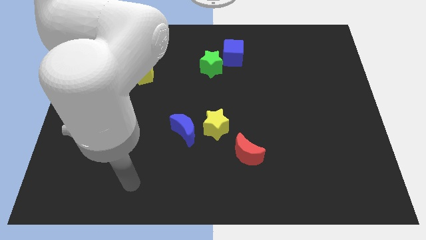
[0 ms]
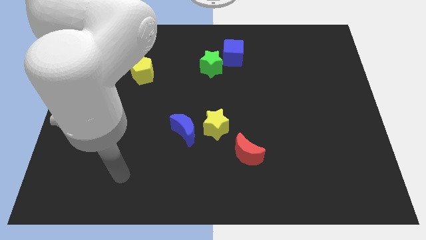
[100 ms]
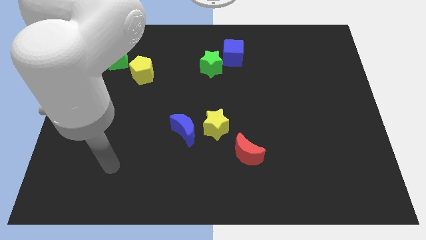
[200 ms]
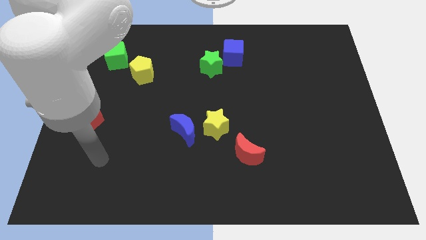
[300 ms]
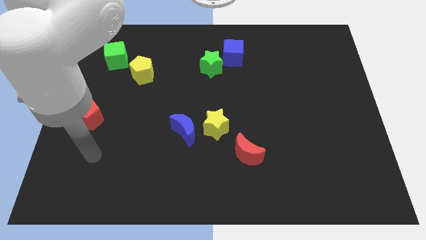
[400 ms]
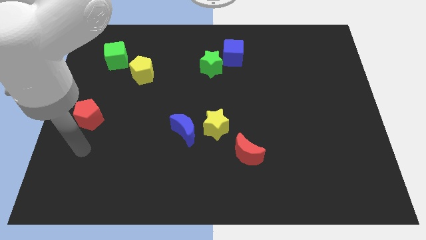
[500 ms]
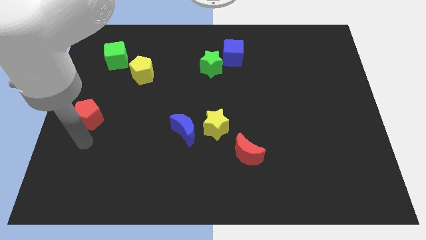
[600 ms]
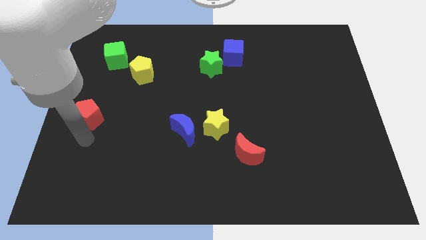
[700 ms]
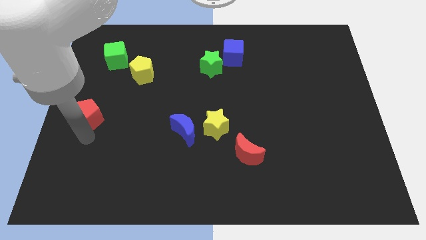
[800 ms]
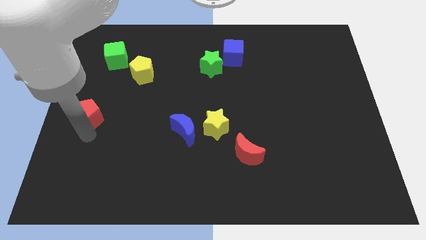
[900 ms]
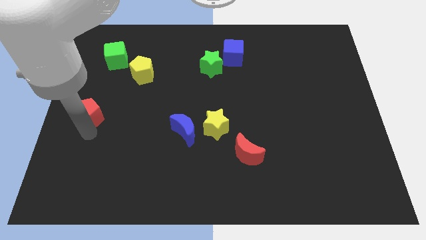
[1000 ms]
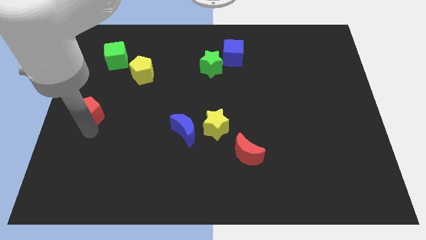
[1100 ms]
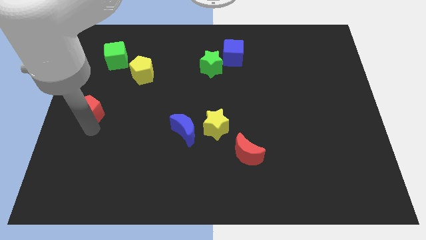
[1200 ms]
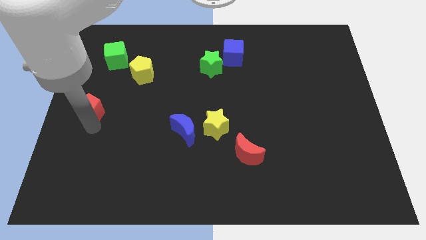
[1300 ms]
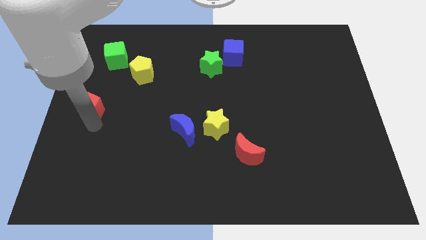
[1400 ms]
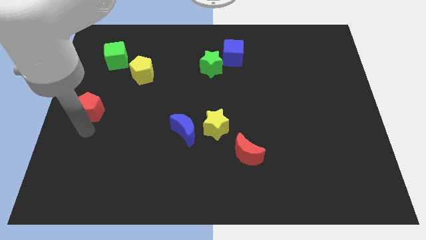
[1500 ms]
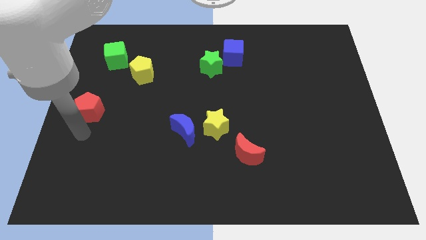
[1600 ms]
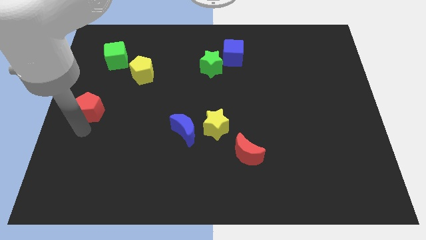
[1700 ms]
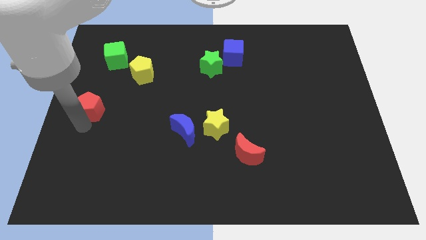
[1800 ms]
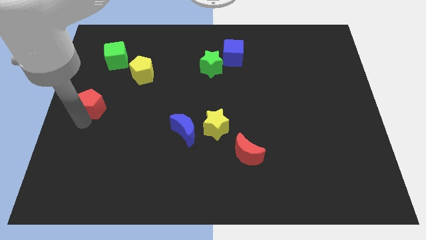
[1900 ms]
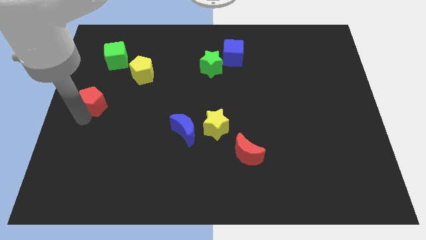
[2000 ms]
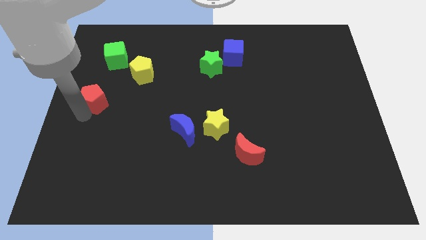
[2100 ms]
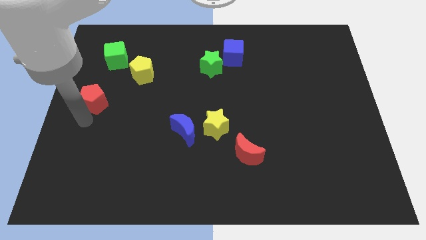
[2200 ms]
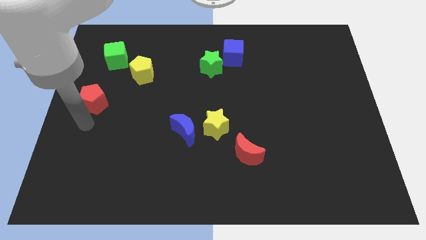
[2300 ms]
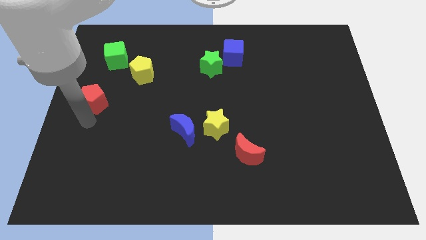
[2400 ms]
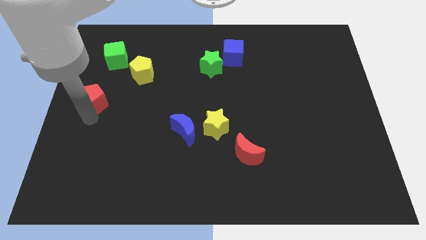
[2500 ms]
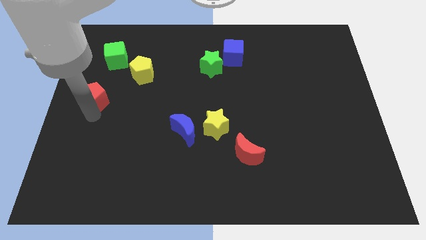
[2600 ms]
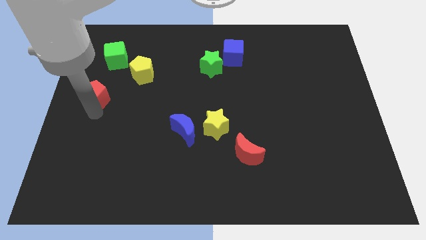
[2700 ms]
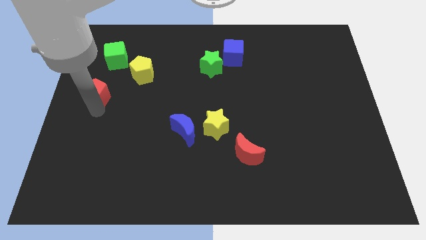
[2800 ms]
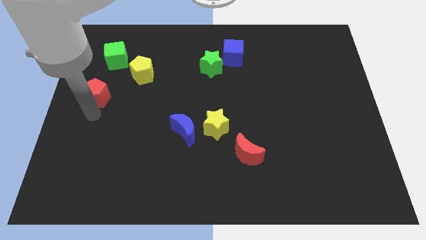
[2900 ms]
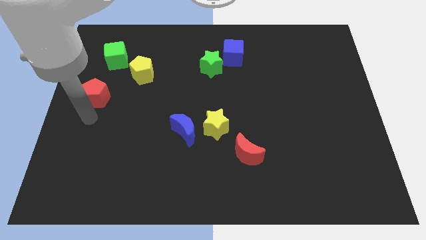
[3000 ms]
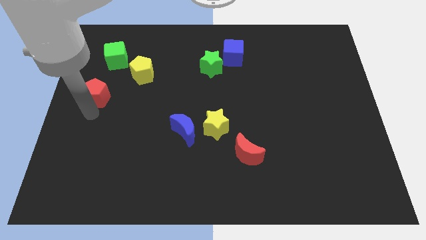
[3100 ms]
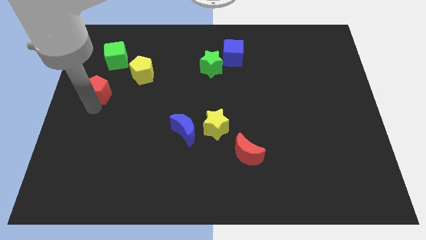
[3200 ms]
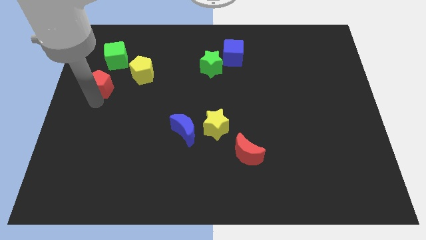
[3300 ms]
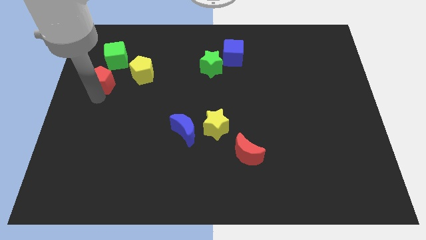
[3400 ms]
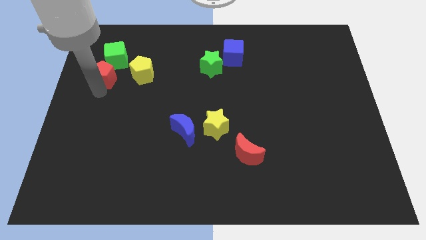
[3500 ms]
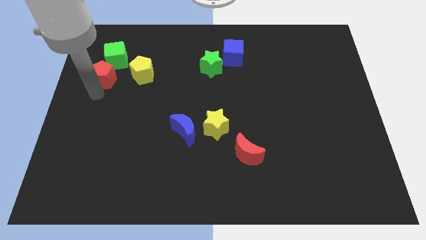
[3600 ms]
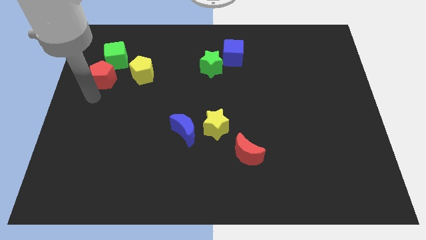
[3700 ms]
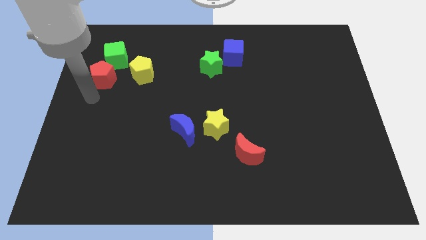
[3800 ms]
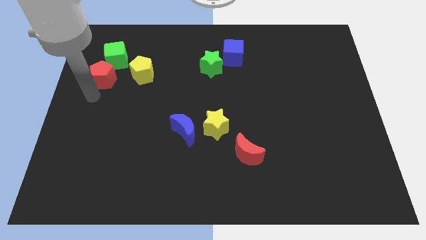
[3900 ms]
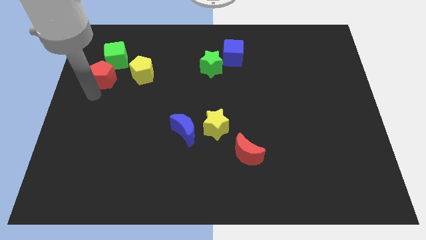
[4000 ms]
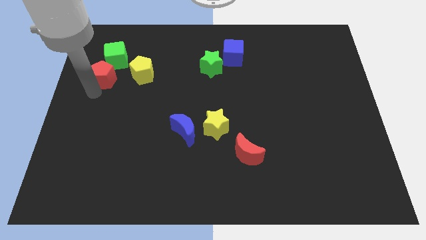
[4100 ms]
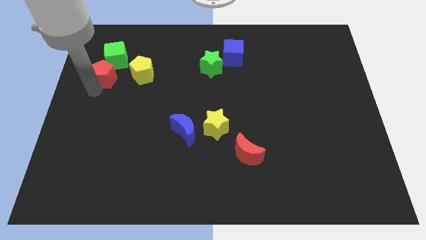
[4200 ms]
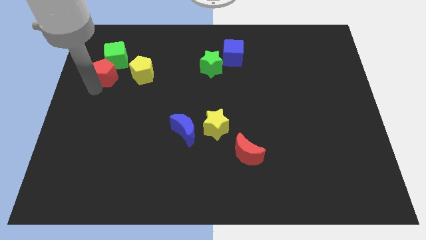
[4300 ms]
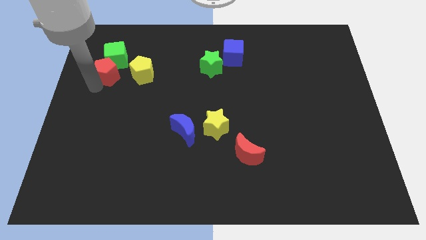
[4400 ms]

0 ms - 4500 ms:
put the red pentagon towards the green cube

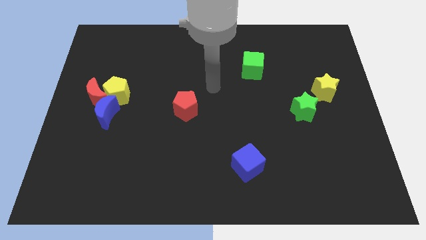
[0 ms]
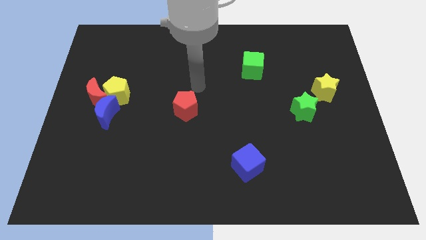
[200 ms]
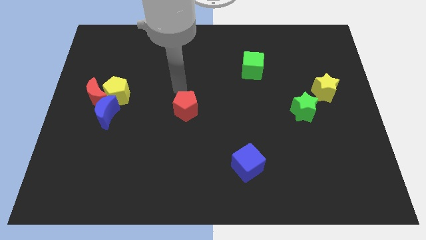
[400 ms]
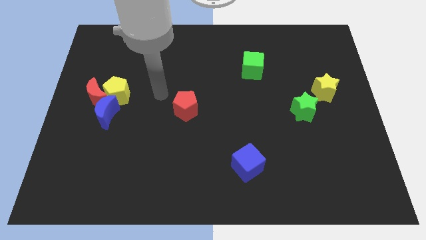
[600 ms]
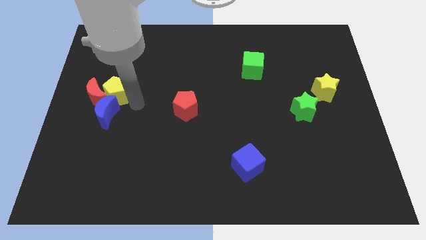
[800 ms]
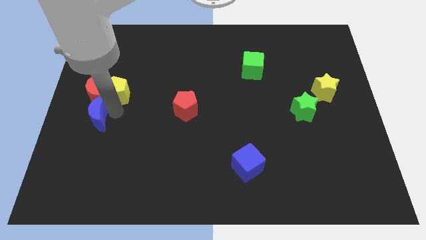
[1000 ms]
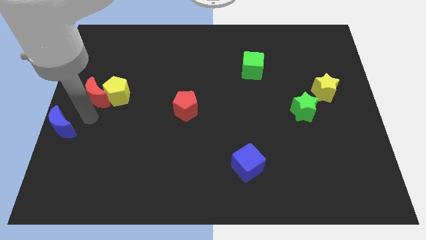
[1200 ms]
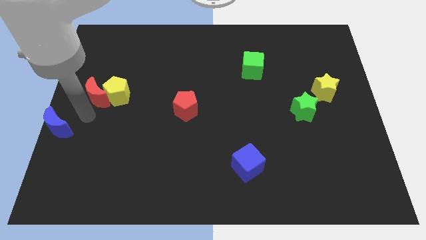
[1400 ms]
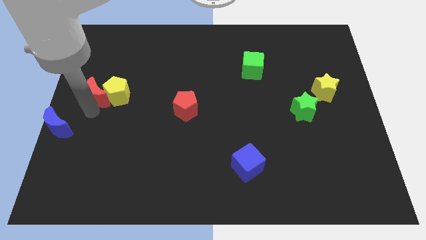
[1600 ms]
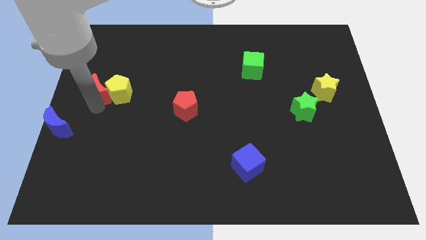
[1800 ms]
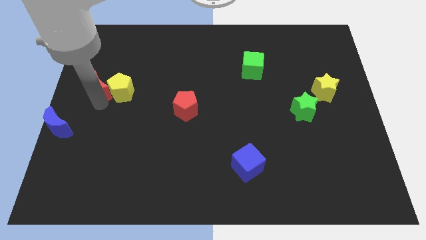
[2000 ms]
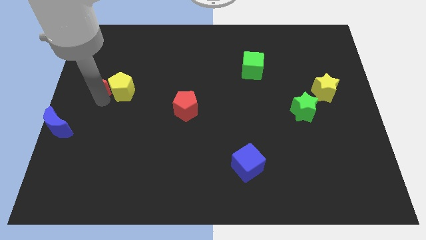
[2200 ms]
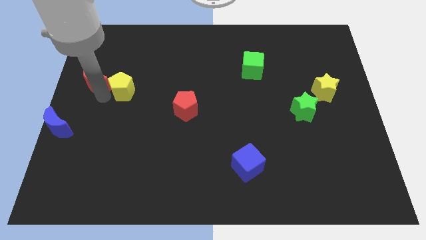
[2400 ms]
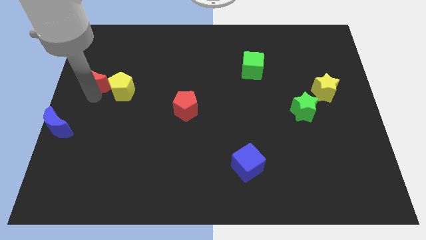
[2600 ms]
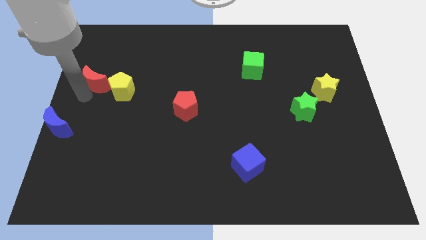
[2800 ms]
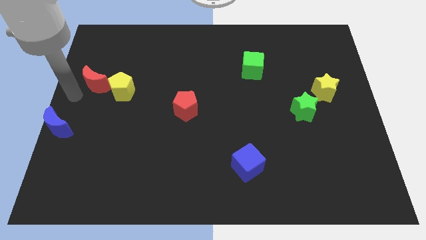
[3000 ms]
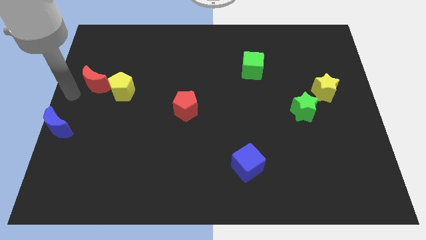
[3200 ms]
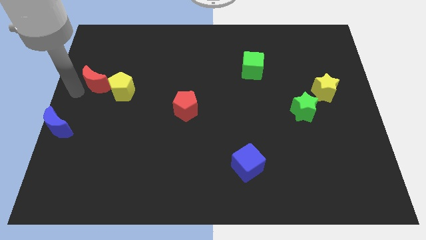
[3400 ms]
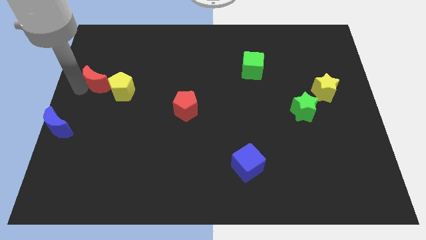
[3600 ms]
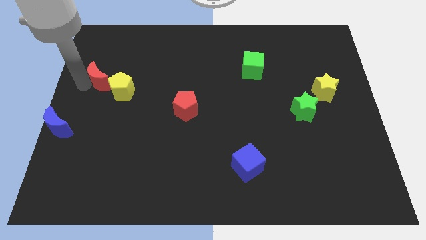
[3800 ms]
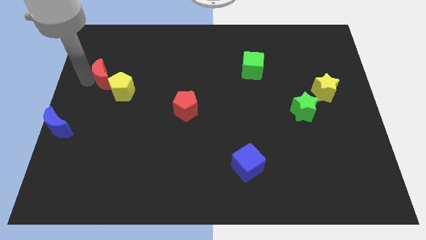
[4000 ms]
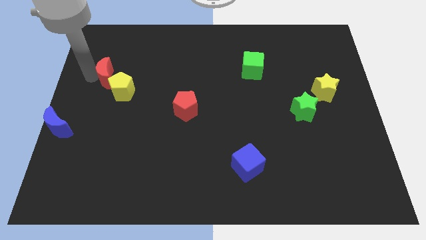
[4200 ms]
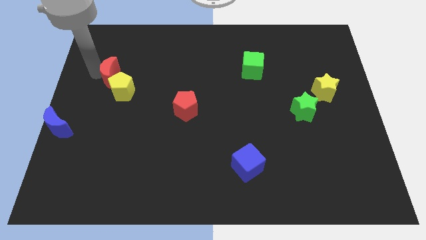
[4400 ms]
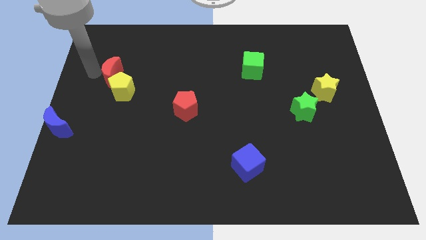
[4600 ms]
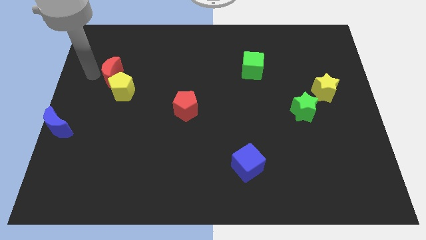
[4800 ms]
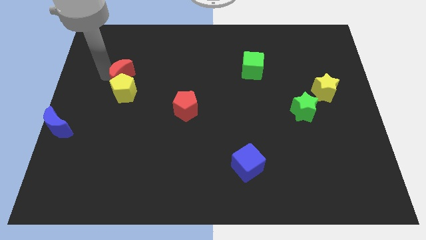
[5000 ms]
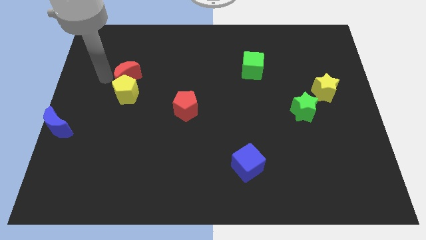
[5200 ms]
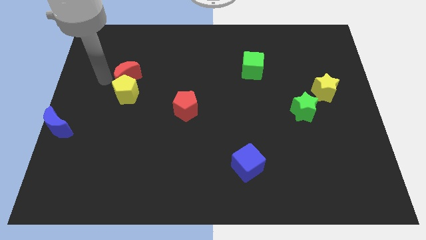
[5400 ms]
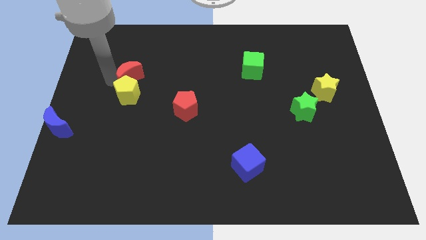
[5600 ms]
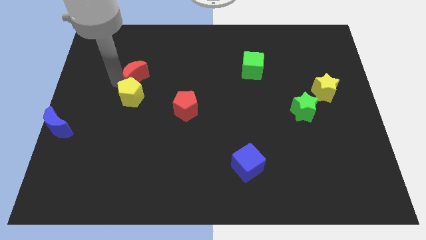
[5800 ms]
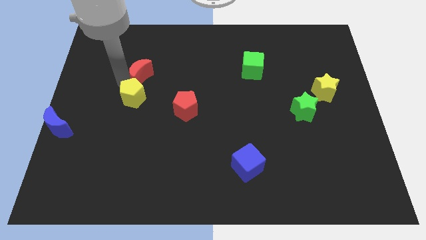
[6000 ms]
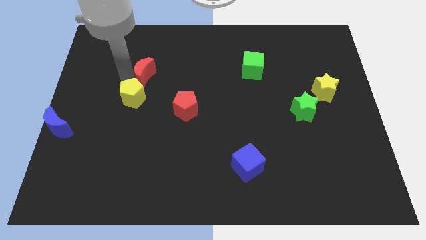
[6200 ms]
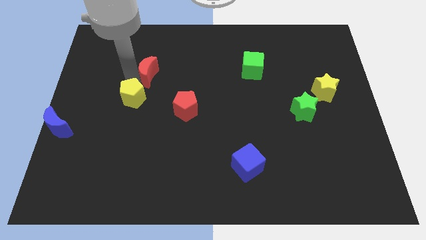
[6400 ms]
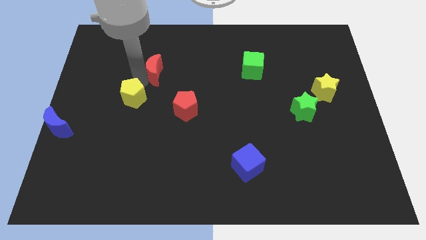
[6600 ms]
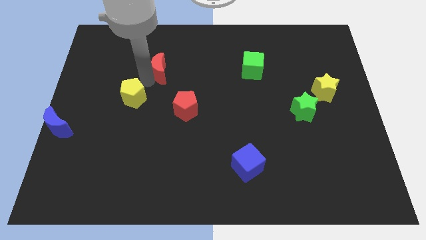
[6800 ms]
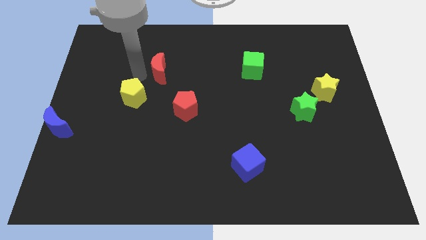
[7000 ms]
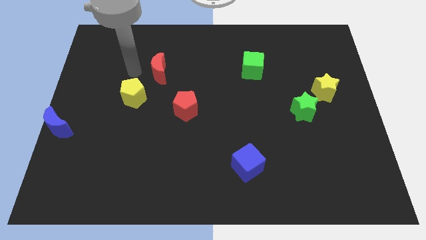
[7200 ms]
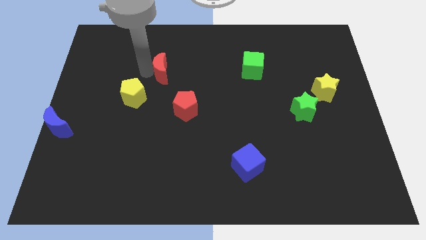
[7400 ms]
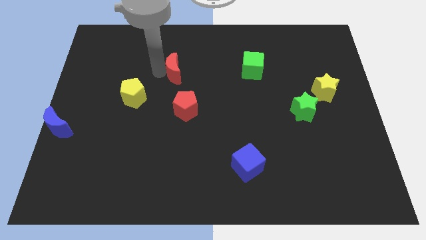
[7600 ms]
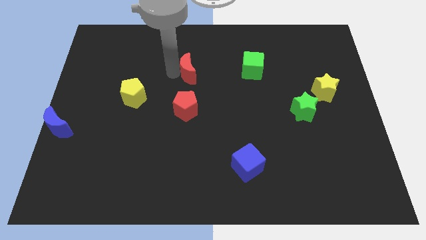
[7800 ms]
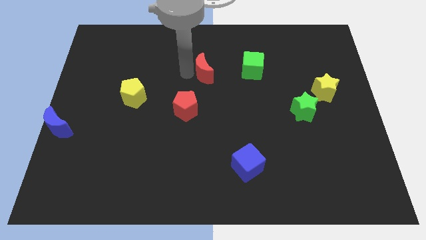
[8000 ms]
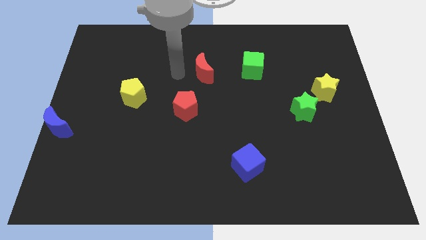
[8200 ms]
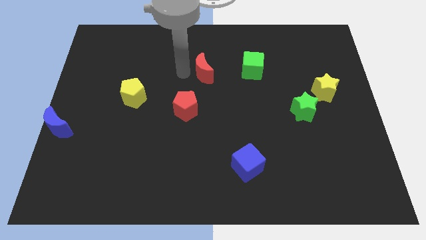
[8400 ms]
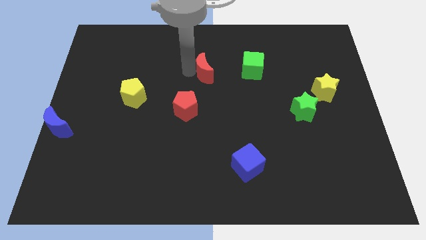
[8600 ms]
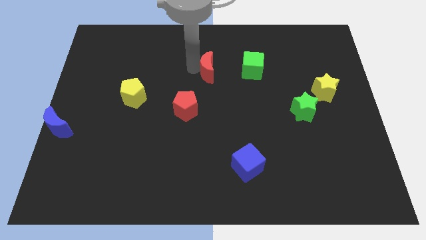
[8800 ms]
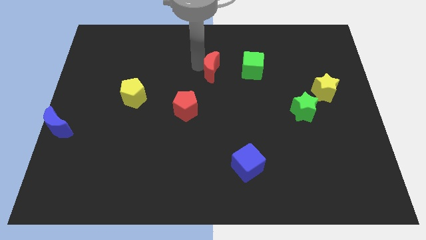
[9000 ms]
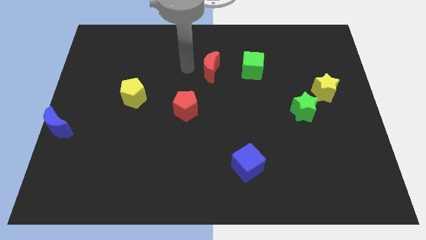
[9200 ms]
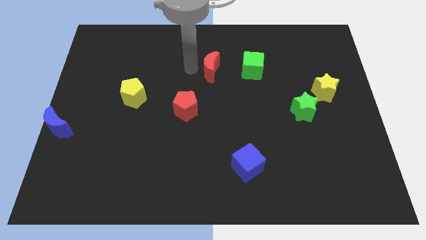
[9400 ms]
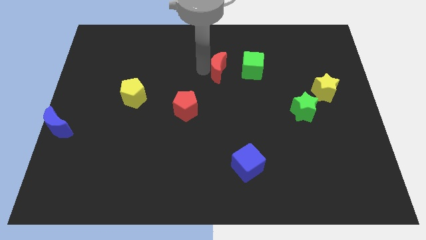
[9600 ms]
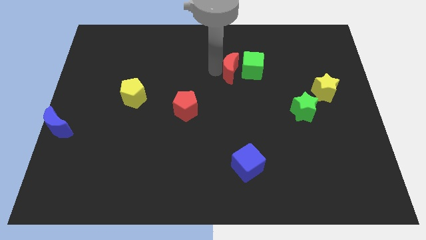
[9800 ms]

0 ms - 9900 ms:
push the red moon to the green cube
